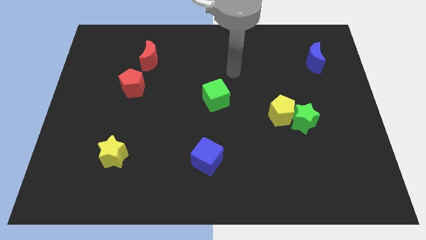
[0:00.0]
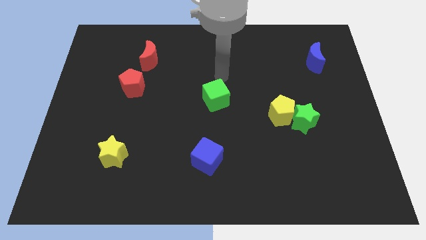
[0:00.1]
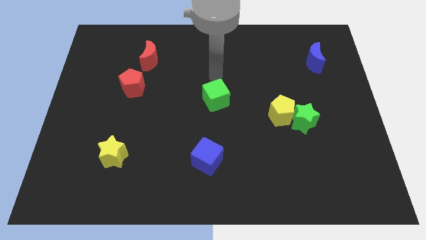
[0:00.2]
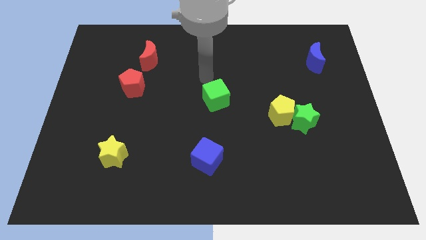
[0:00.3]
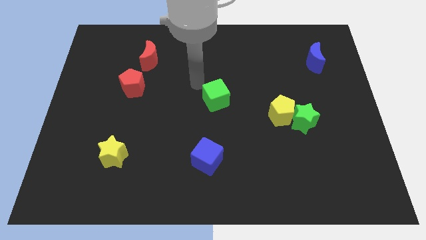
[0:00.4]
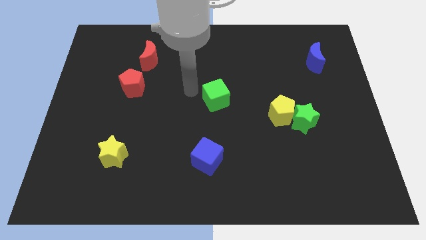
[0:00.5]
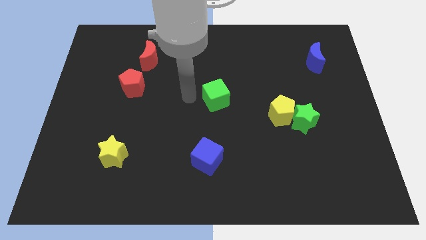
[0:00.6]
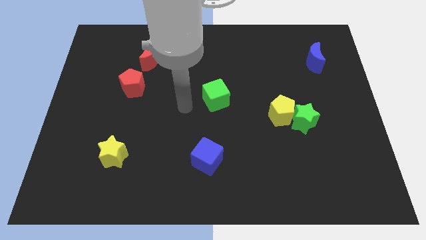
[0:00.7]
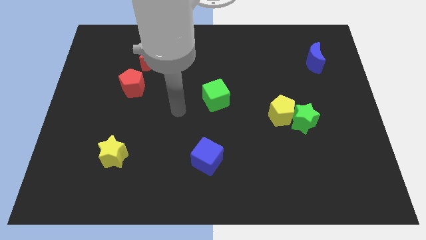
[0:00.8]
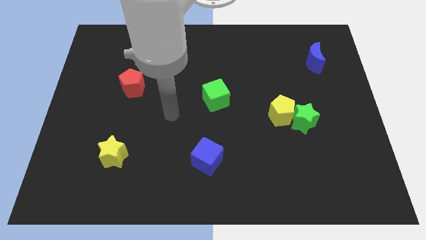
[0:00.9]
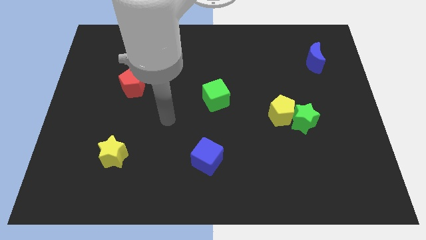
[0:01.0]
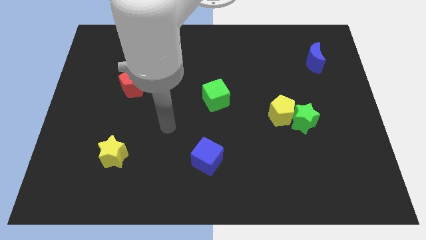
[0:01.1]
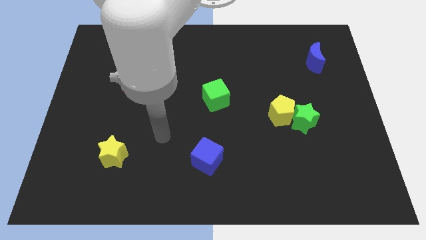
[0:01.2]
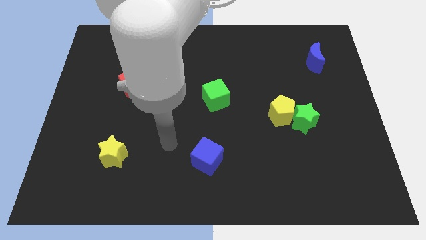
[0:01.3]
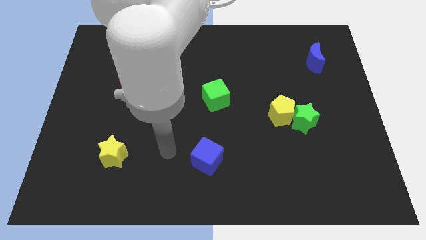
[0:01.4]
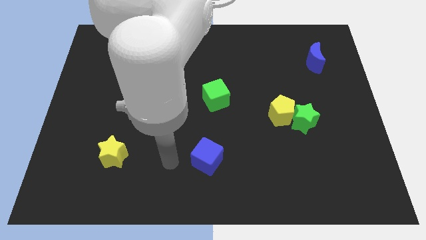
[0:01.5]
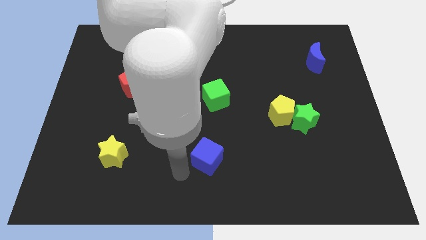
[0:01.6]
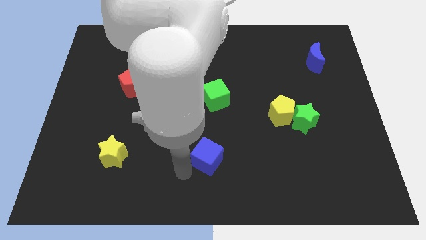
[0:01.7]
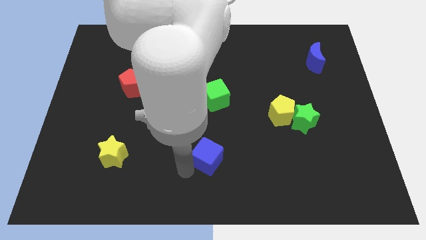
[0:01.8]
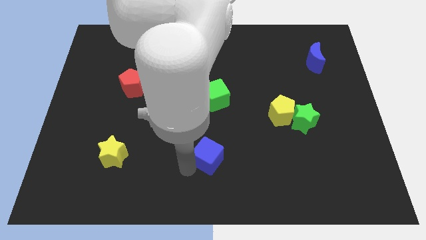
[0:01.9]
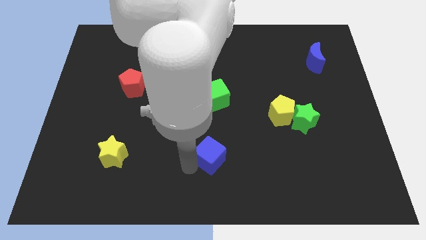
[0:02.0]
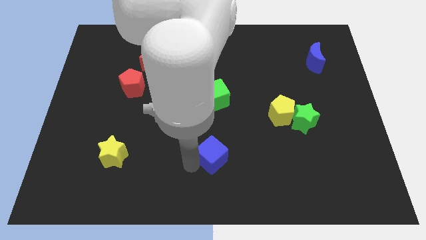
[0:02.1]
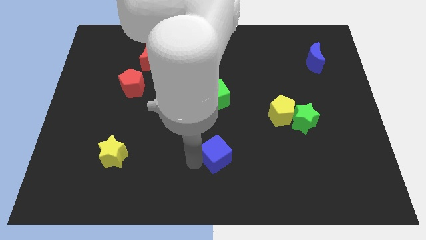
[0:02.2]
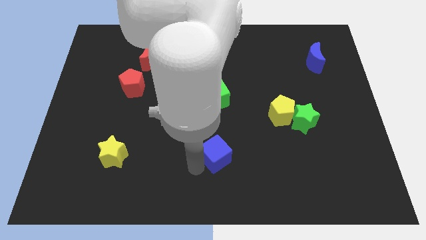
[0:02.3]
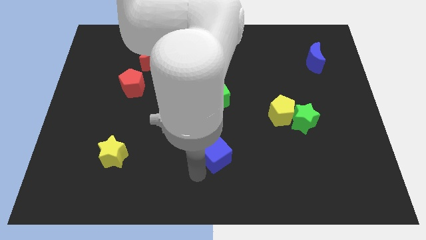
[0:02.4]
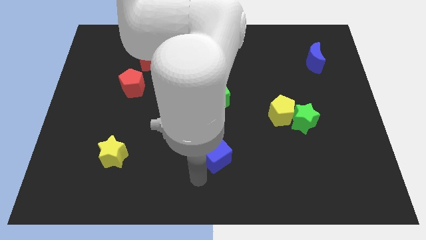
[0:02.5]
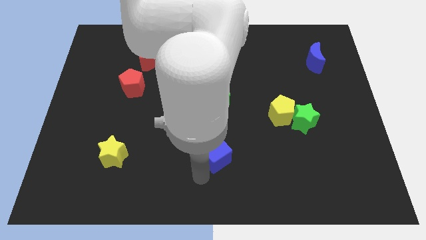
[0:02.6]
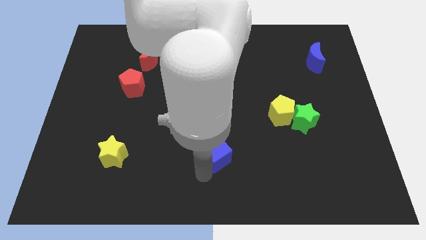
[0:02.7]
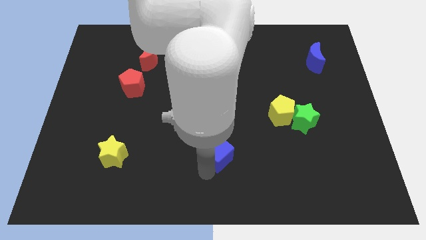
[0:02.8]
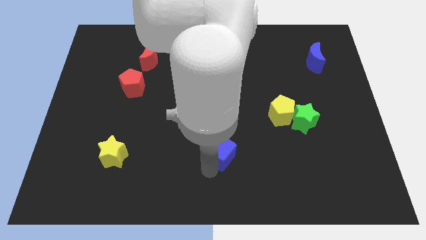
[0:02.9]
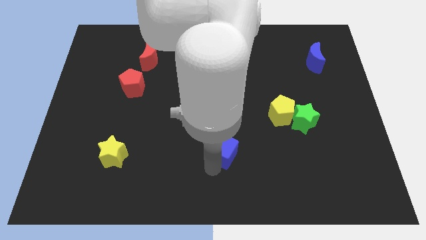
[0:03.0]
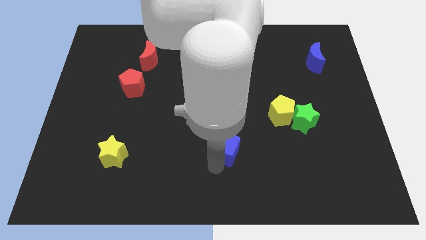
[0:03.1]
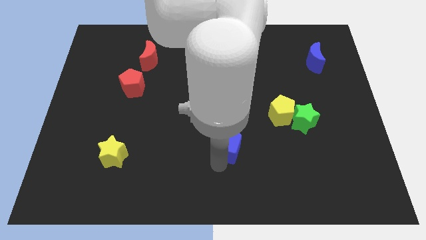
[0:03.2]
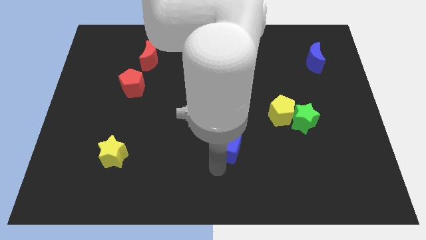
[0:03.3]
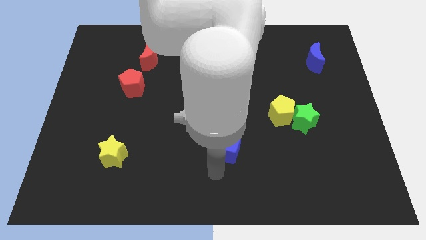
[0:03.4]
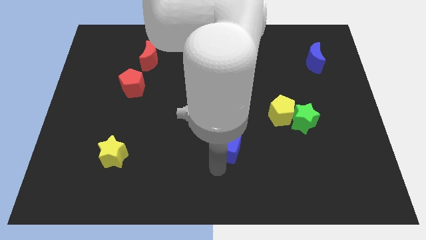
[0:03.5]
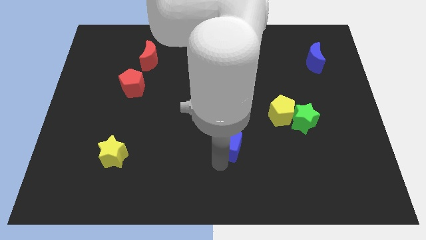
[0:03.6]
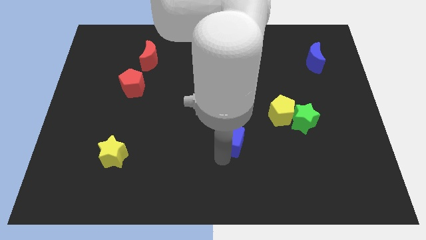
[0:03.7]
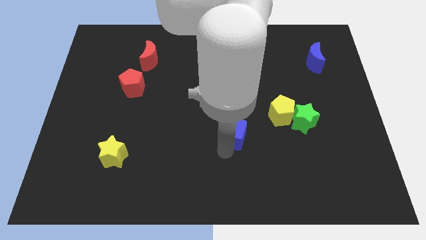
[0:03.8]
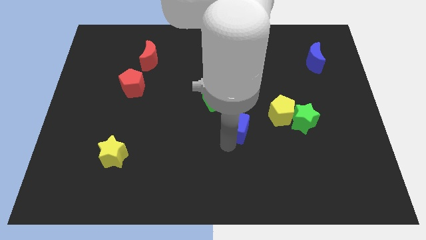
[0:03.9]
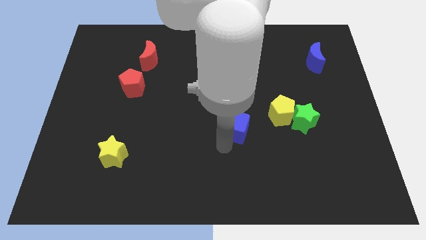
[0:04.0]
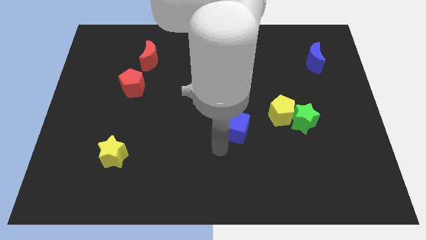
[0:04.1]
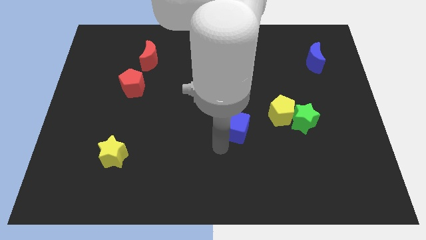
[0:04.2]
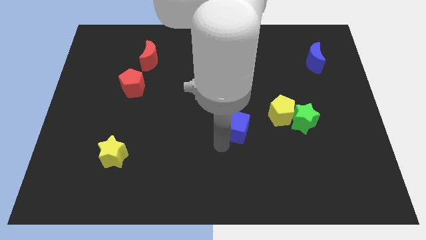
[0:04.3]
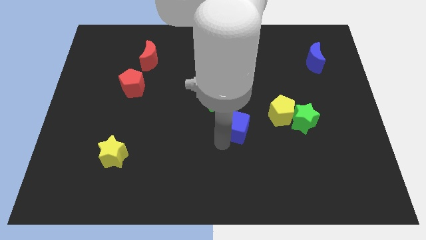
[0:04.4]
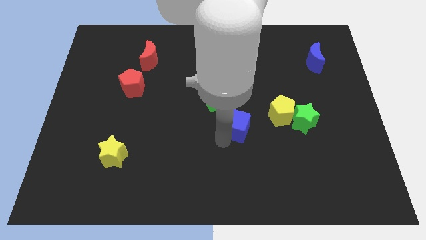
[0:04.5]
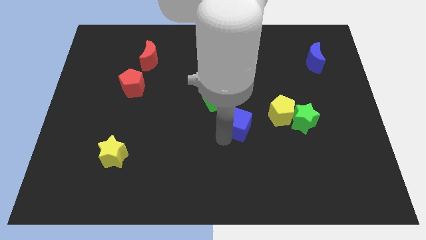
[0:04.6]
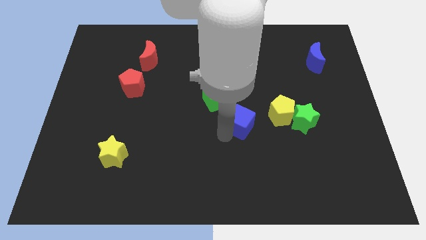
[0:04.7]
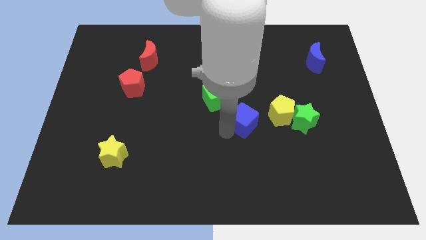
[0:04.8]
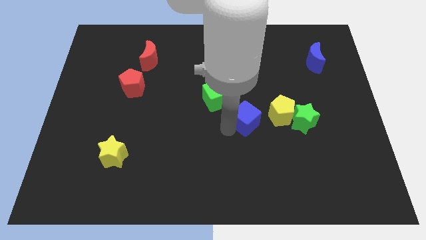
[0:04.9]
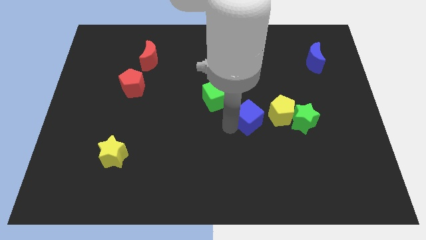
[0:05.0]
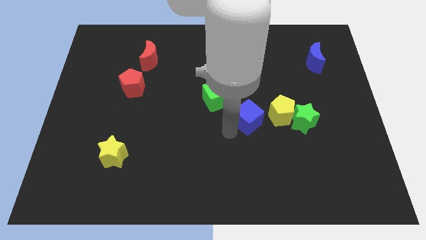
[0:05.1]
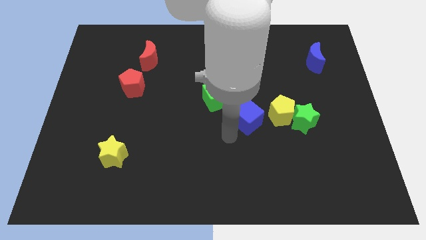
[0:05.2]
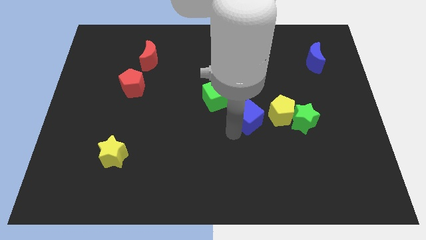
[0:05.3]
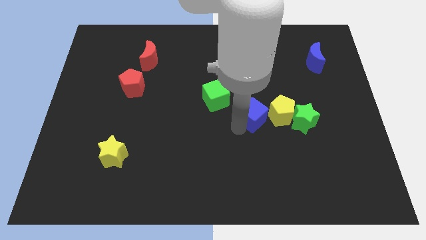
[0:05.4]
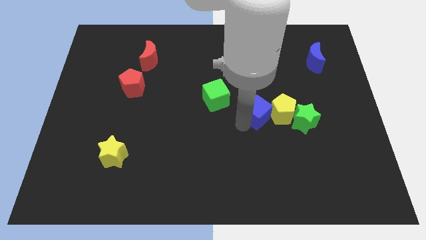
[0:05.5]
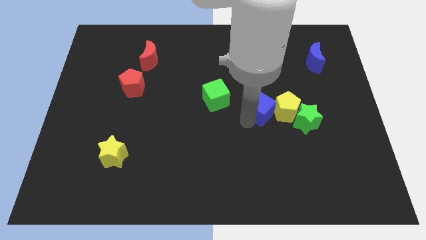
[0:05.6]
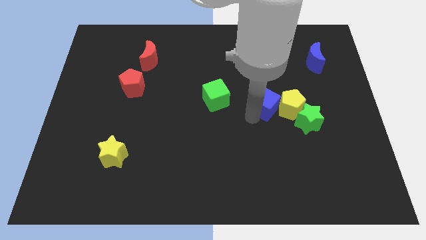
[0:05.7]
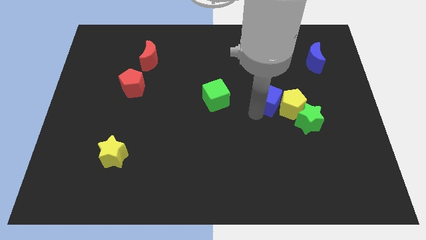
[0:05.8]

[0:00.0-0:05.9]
slide the blue cube upwards and to the right diagonally

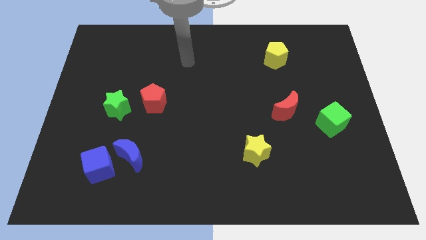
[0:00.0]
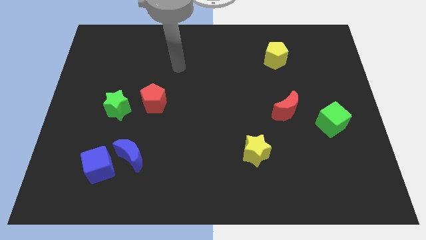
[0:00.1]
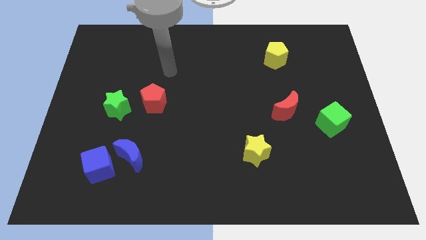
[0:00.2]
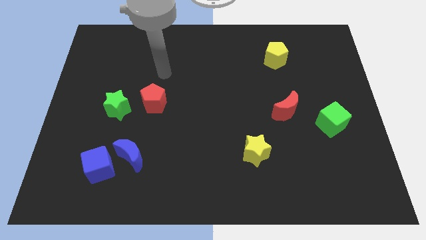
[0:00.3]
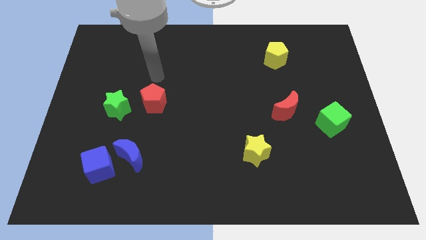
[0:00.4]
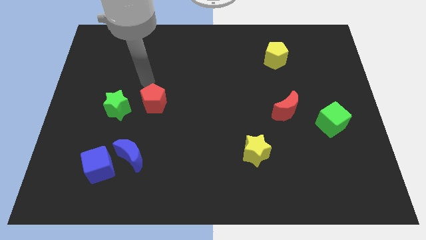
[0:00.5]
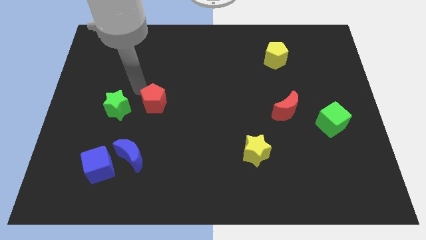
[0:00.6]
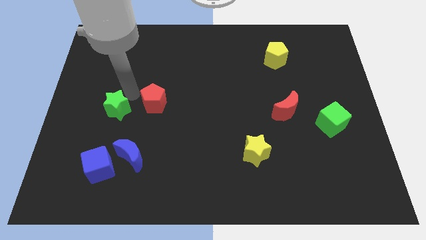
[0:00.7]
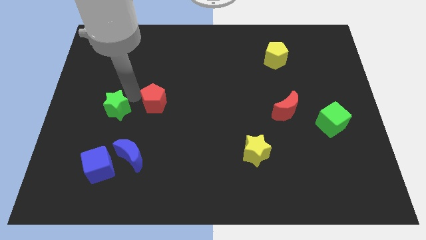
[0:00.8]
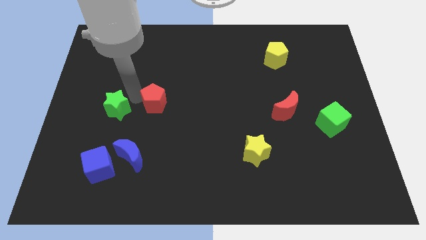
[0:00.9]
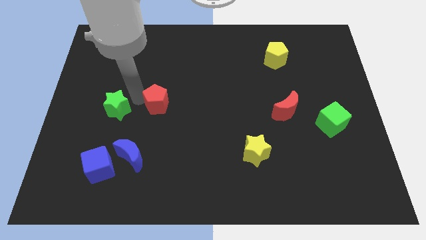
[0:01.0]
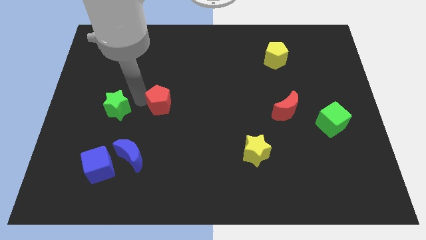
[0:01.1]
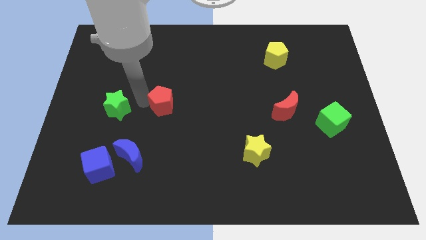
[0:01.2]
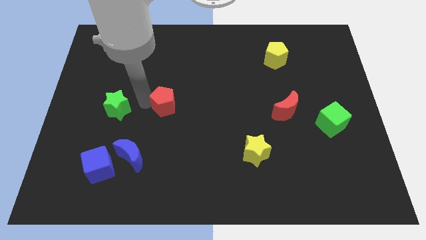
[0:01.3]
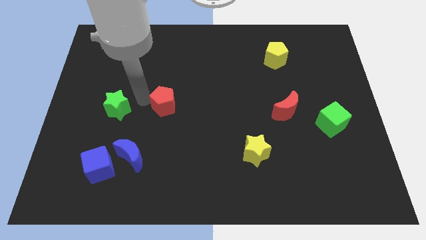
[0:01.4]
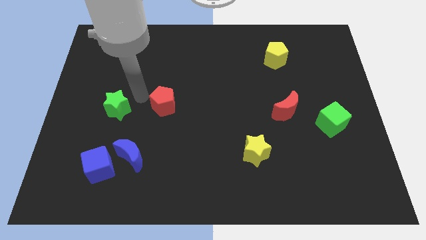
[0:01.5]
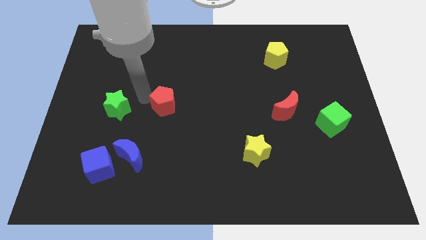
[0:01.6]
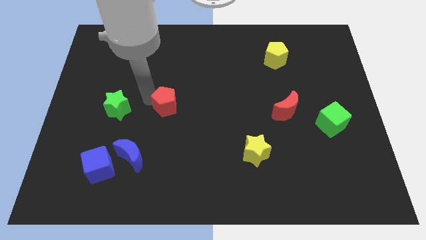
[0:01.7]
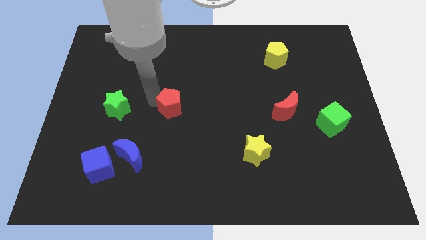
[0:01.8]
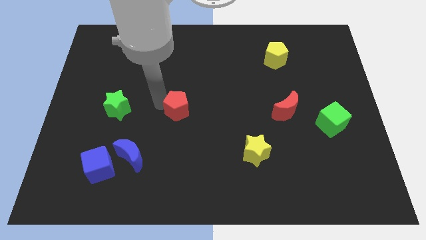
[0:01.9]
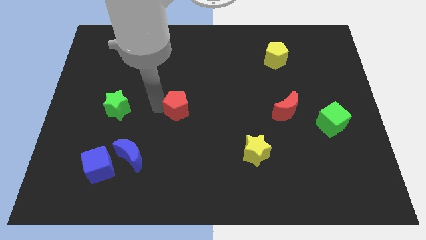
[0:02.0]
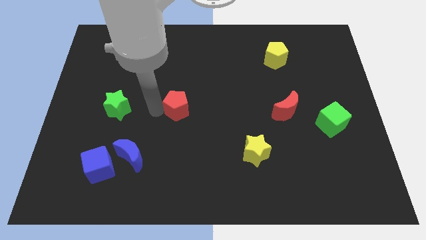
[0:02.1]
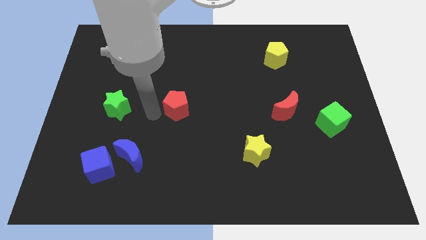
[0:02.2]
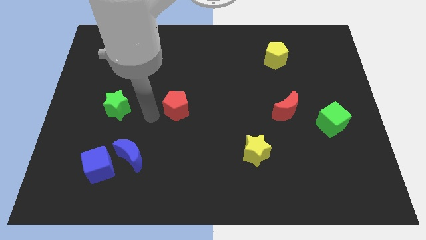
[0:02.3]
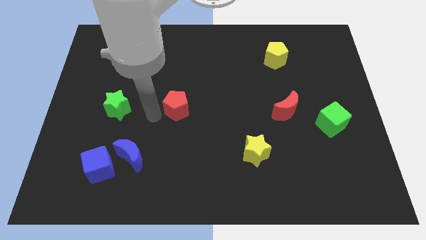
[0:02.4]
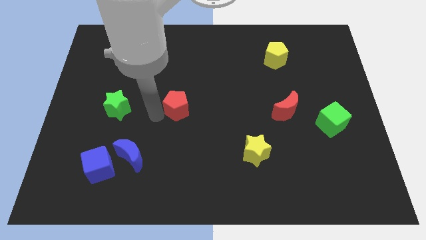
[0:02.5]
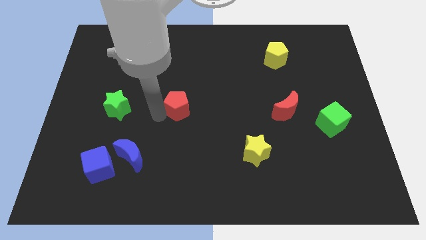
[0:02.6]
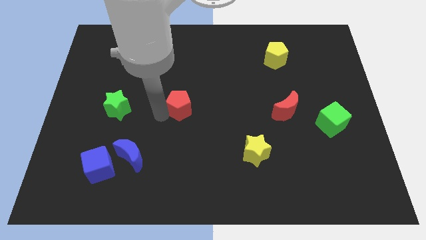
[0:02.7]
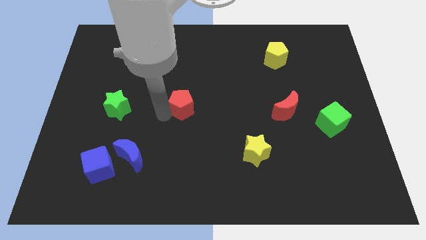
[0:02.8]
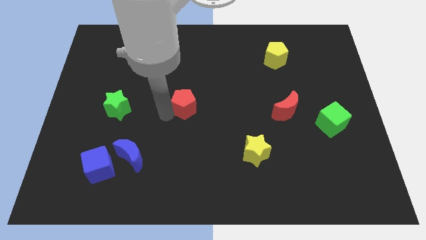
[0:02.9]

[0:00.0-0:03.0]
slightly slide the red pentagon to the right
